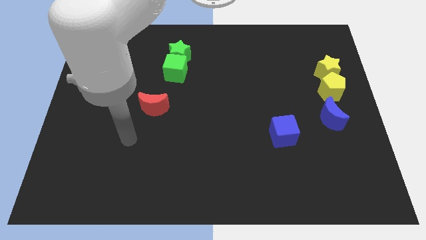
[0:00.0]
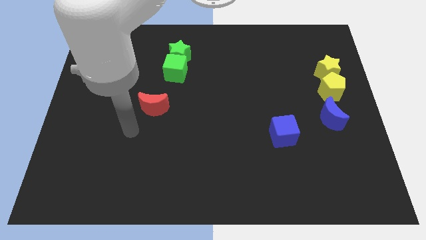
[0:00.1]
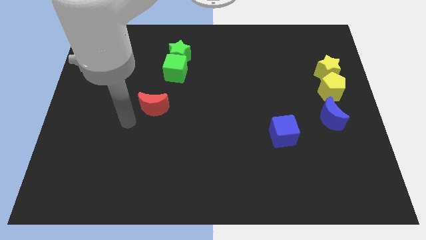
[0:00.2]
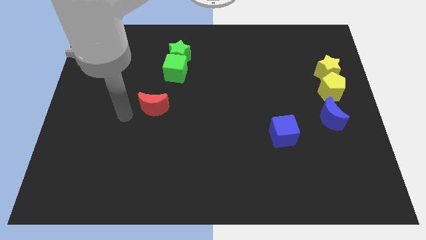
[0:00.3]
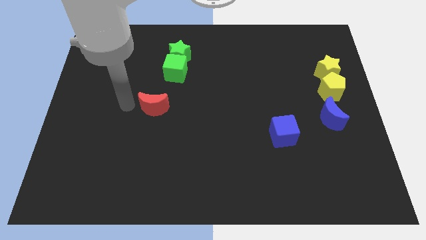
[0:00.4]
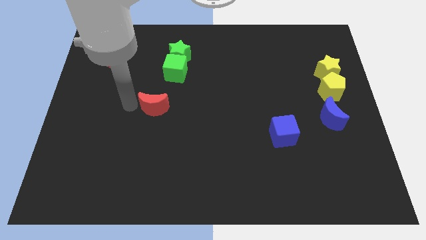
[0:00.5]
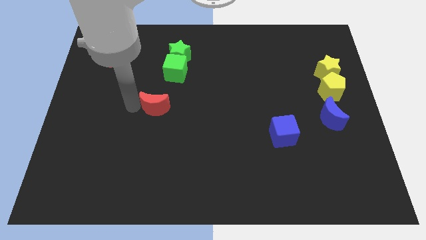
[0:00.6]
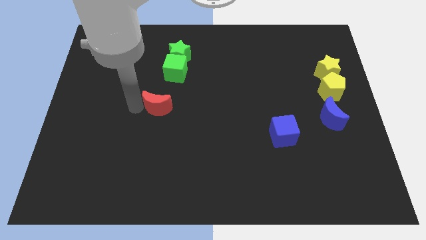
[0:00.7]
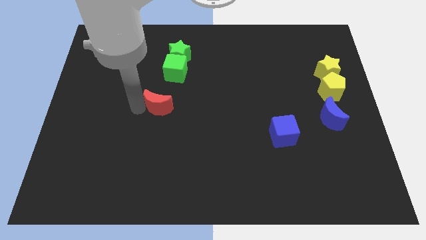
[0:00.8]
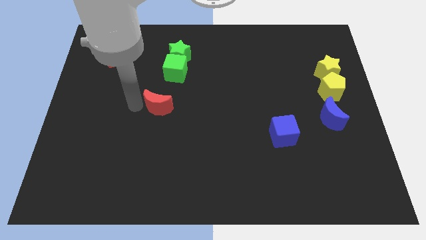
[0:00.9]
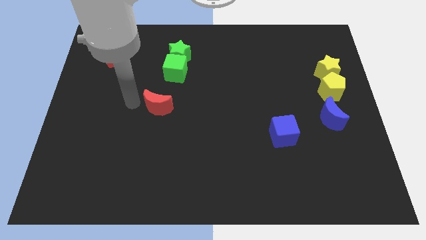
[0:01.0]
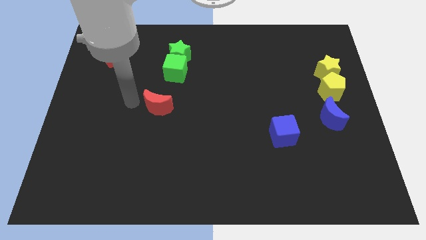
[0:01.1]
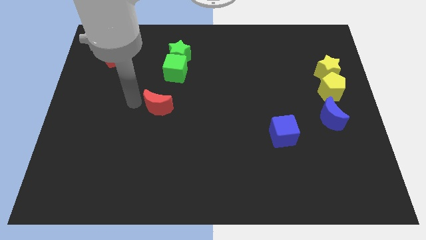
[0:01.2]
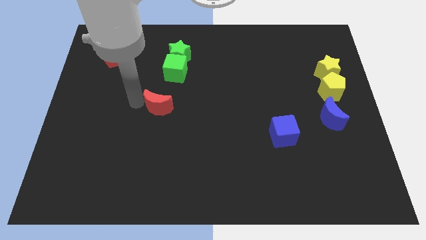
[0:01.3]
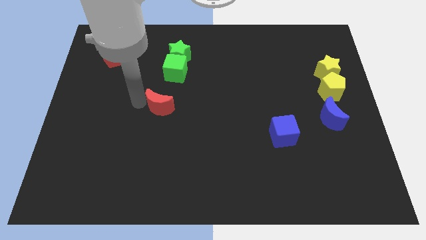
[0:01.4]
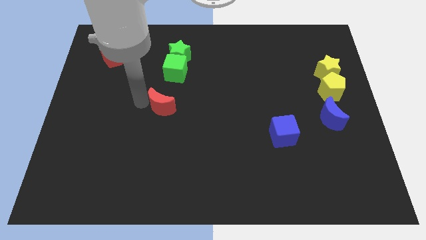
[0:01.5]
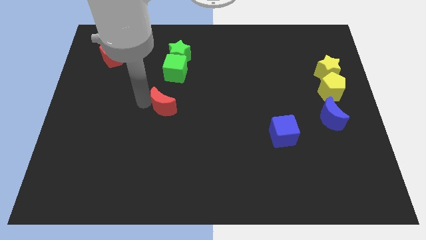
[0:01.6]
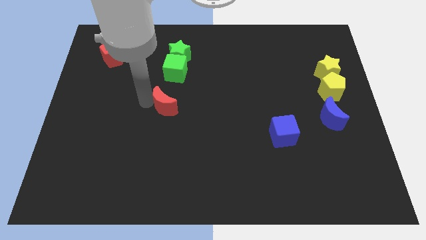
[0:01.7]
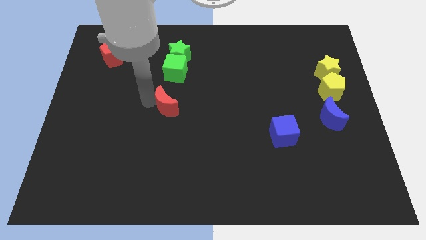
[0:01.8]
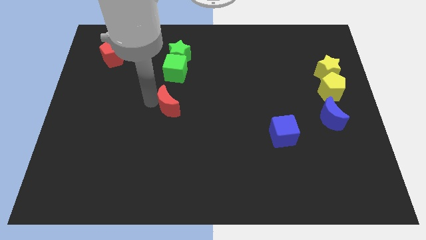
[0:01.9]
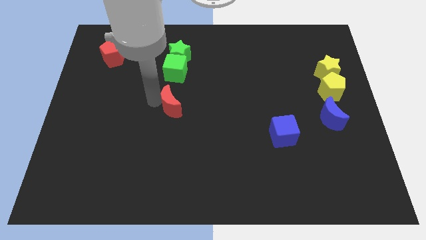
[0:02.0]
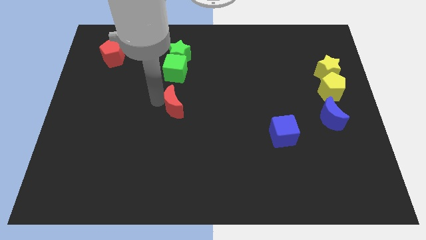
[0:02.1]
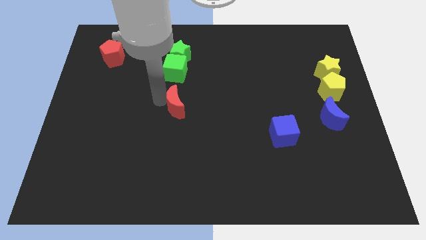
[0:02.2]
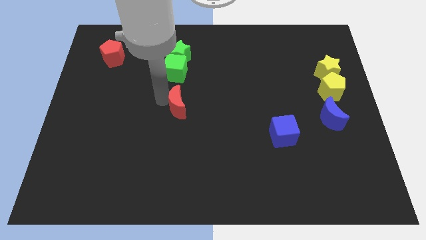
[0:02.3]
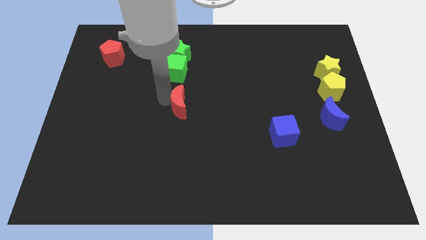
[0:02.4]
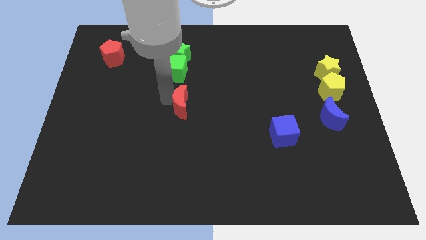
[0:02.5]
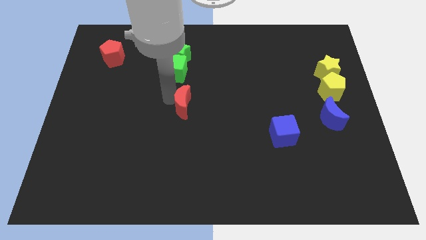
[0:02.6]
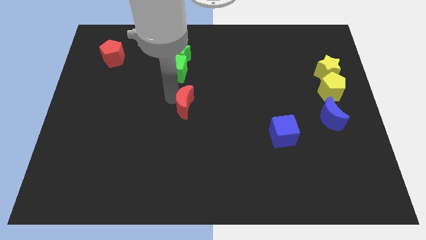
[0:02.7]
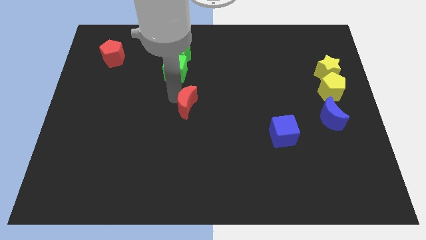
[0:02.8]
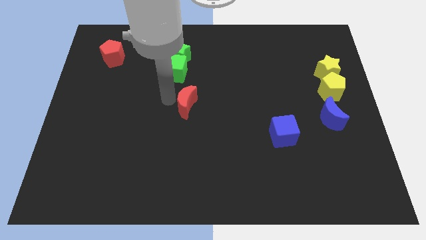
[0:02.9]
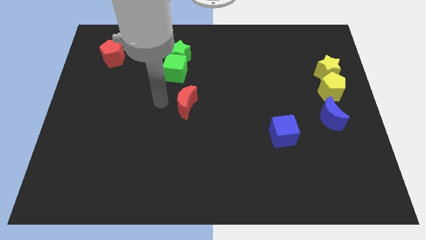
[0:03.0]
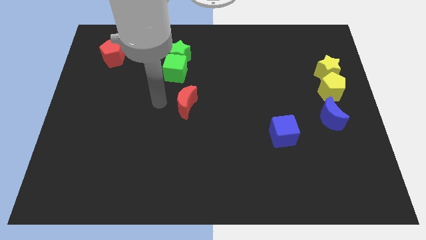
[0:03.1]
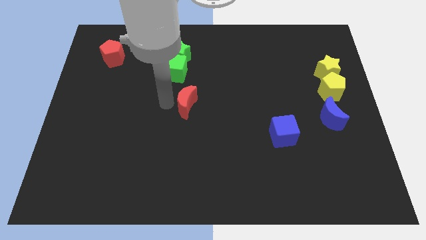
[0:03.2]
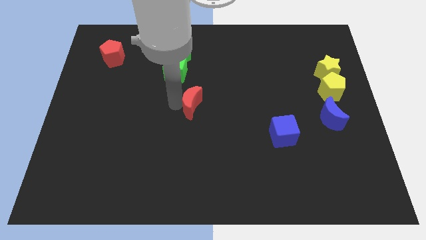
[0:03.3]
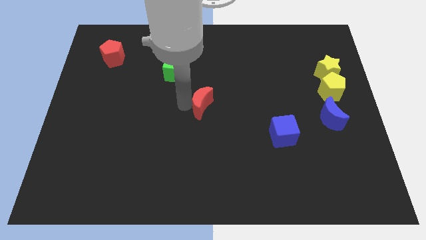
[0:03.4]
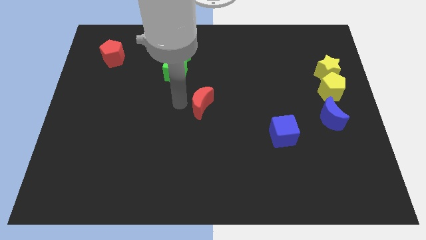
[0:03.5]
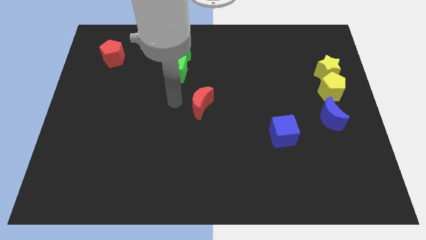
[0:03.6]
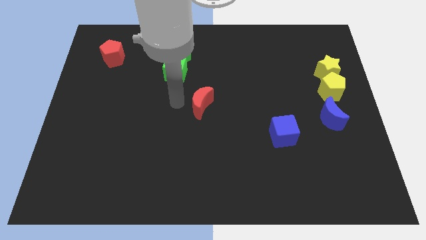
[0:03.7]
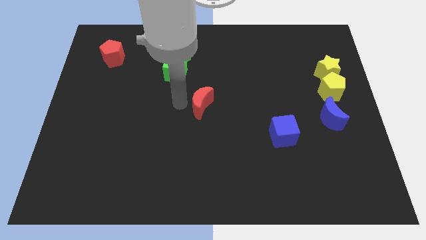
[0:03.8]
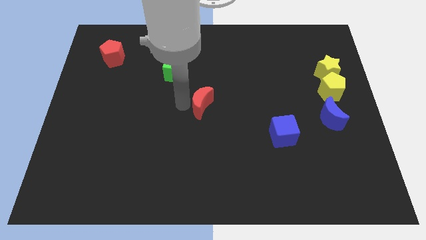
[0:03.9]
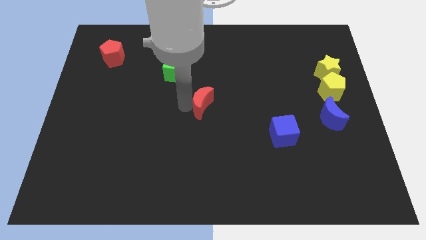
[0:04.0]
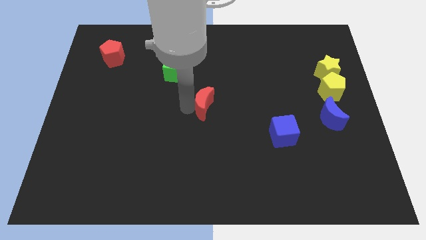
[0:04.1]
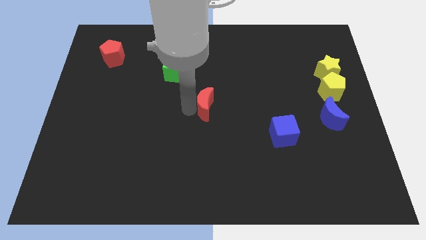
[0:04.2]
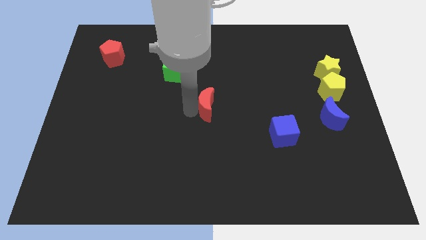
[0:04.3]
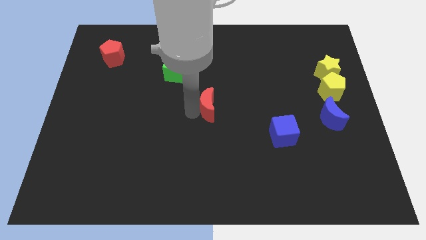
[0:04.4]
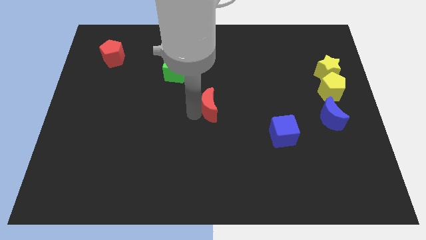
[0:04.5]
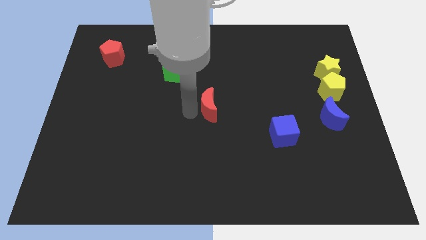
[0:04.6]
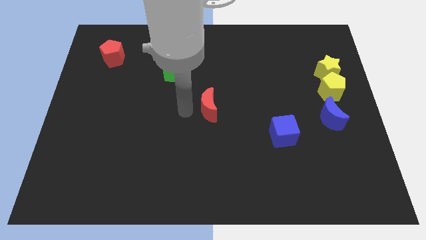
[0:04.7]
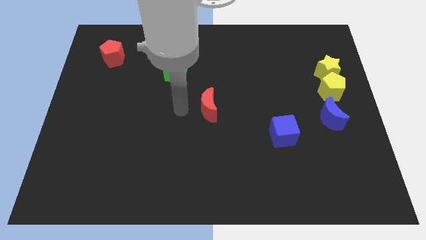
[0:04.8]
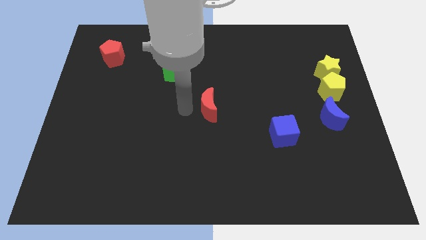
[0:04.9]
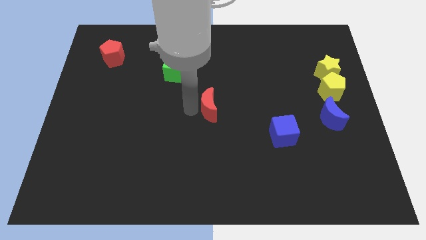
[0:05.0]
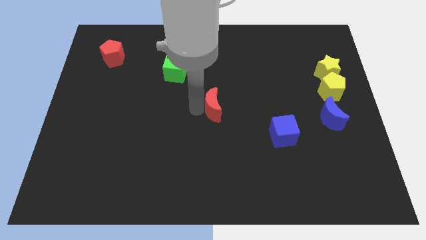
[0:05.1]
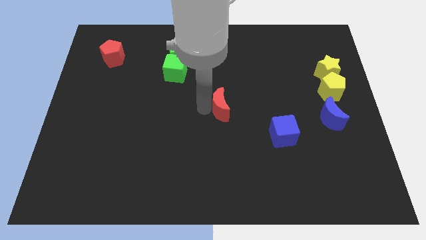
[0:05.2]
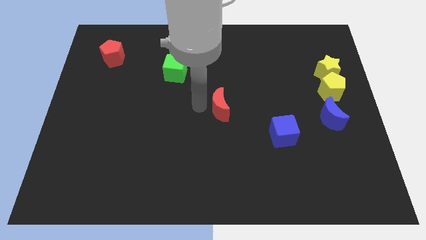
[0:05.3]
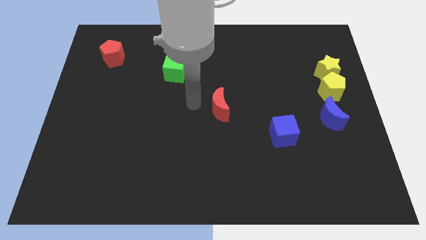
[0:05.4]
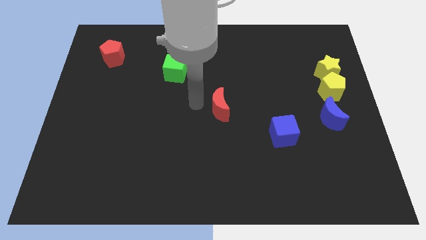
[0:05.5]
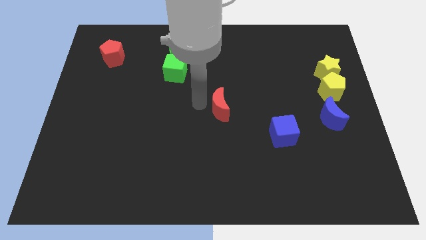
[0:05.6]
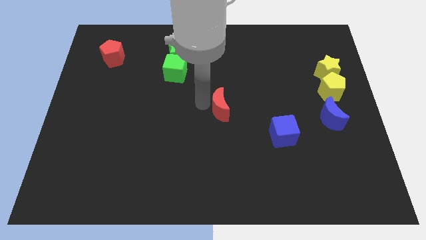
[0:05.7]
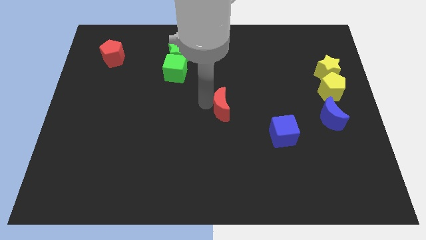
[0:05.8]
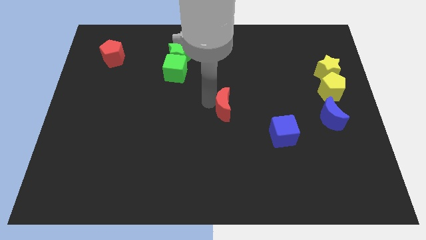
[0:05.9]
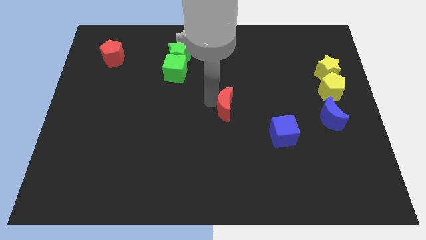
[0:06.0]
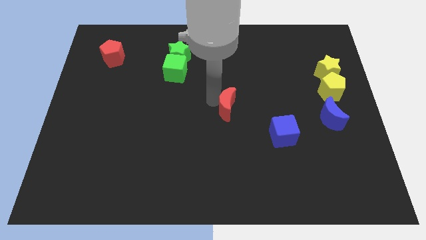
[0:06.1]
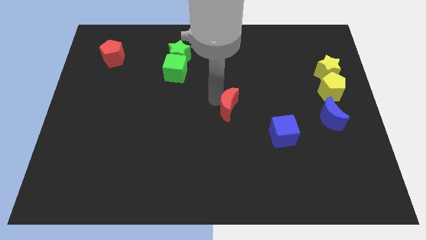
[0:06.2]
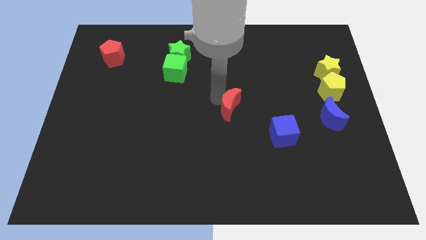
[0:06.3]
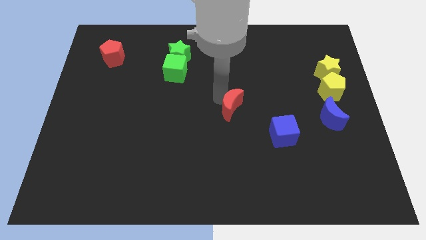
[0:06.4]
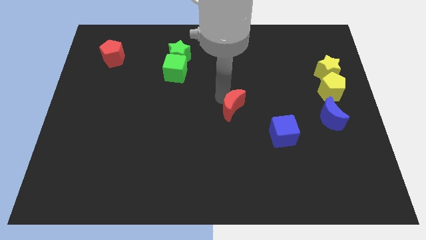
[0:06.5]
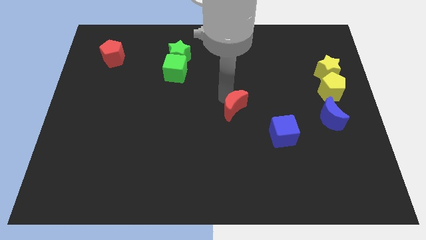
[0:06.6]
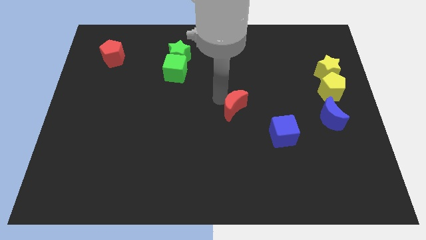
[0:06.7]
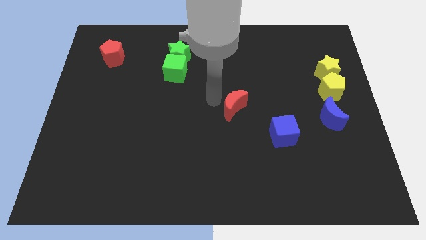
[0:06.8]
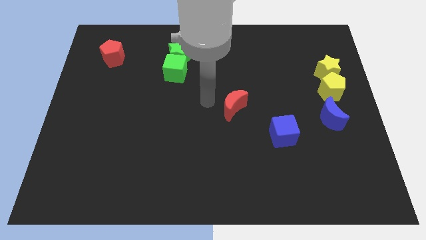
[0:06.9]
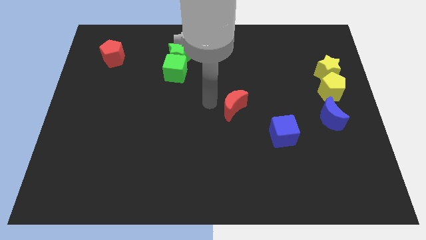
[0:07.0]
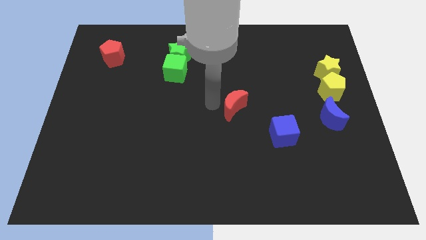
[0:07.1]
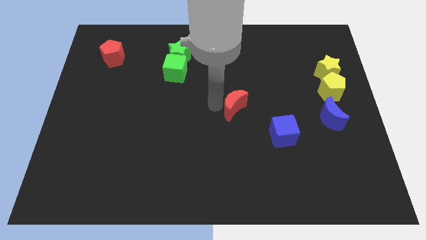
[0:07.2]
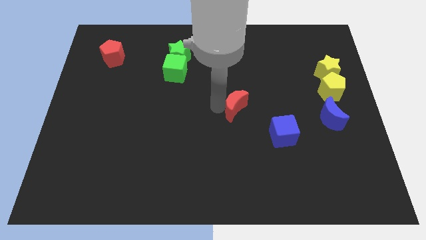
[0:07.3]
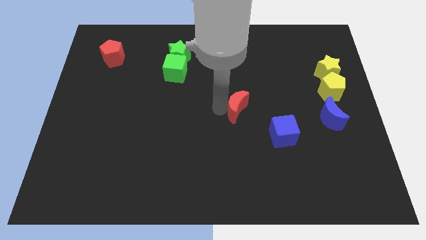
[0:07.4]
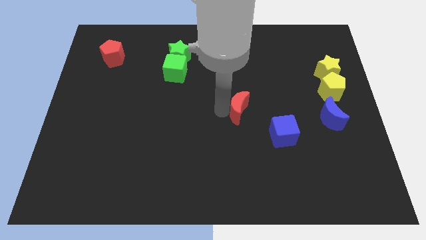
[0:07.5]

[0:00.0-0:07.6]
move the red moon to the right

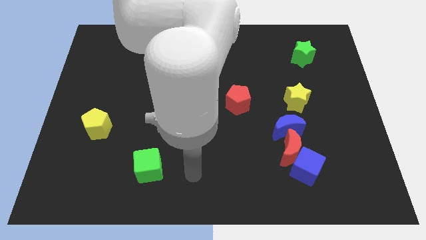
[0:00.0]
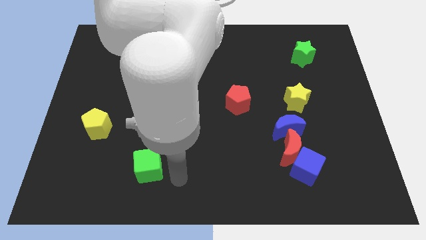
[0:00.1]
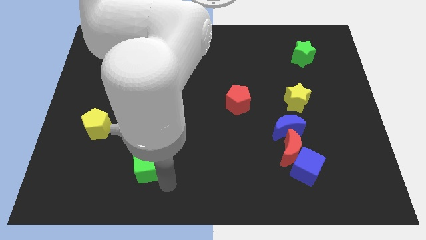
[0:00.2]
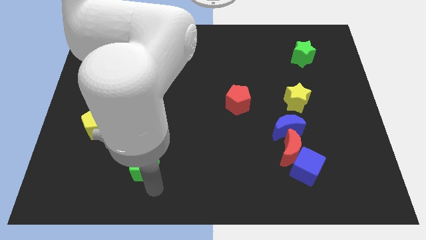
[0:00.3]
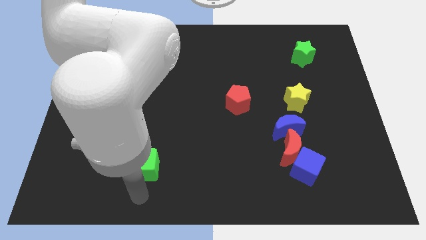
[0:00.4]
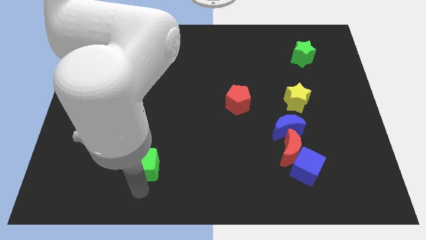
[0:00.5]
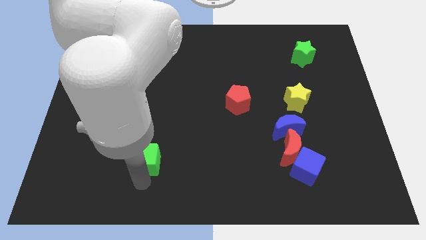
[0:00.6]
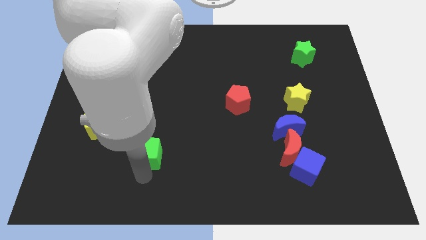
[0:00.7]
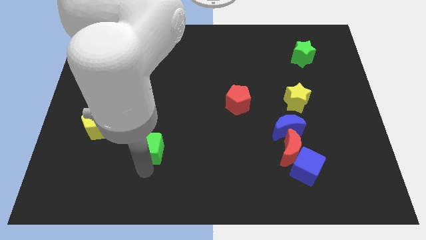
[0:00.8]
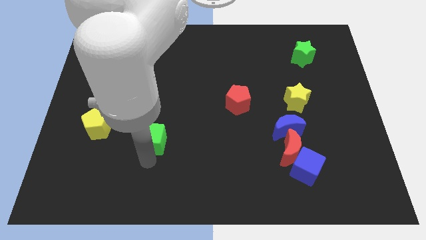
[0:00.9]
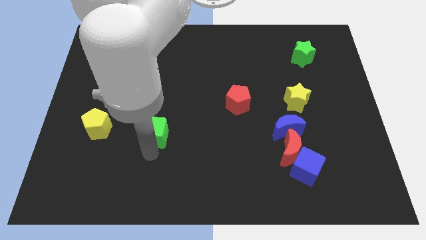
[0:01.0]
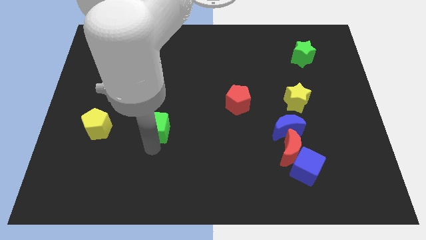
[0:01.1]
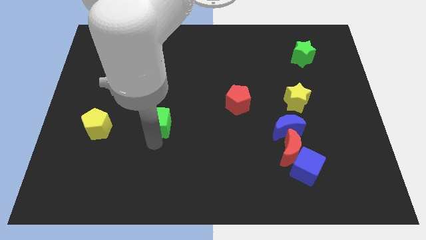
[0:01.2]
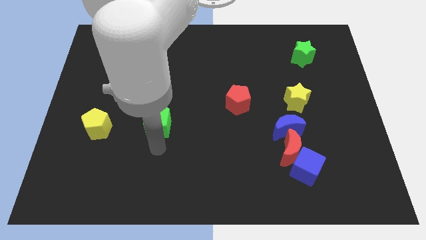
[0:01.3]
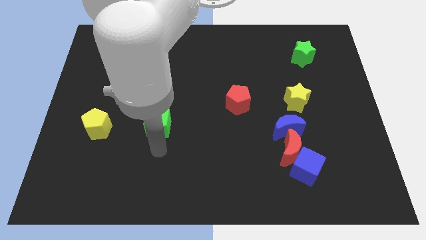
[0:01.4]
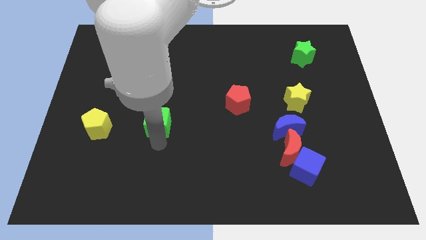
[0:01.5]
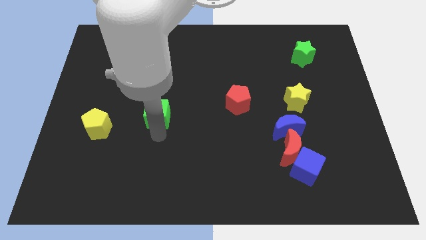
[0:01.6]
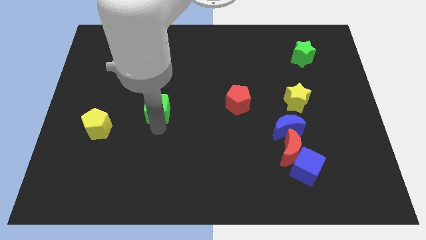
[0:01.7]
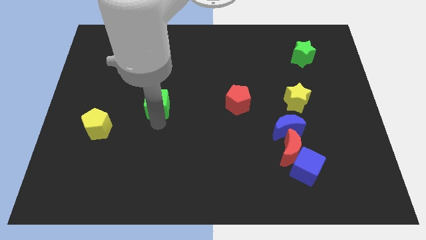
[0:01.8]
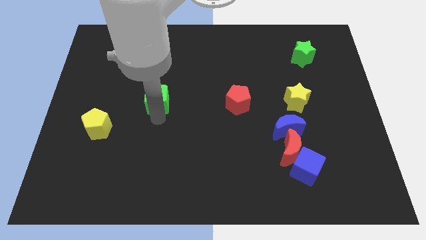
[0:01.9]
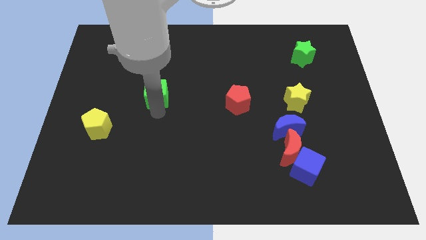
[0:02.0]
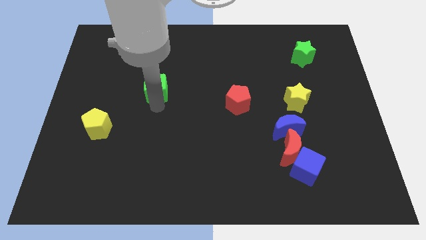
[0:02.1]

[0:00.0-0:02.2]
slide the green cube up
